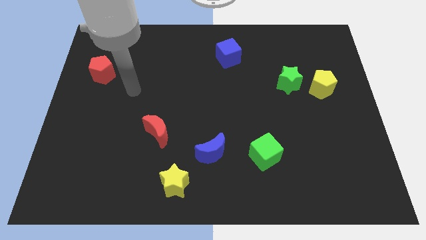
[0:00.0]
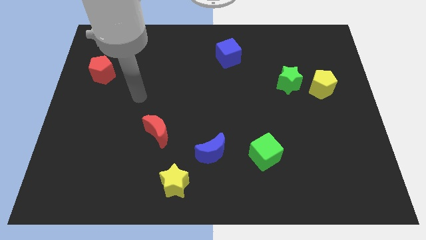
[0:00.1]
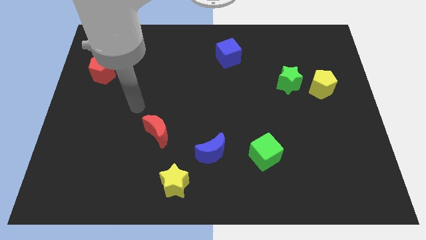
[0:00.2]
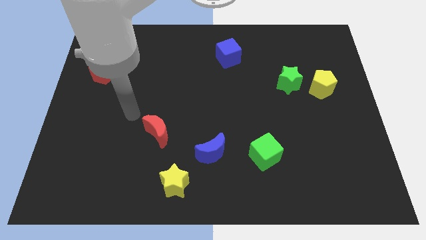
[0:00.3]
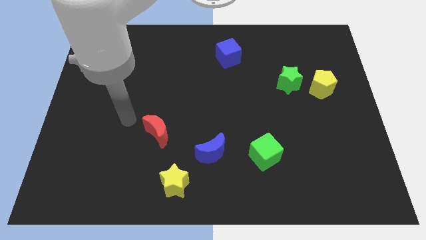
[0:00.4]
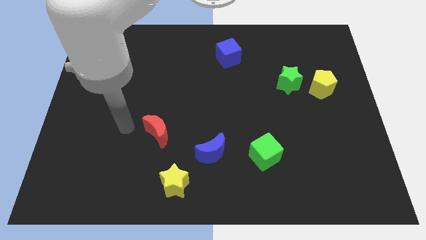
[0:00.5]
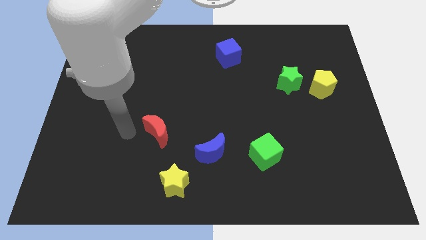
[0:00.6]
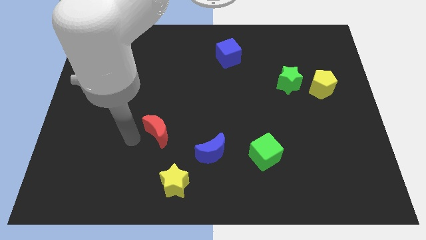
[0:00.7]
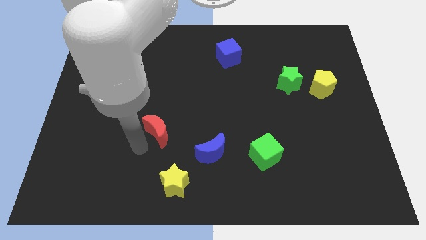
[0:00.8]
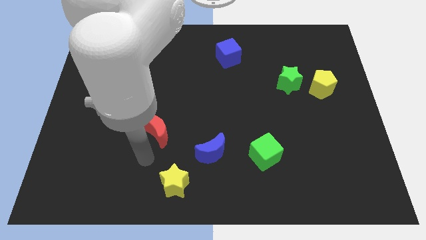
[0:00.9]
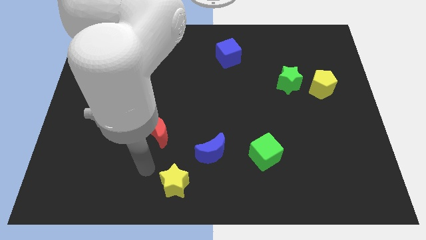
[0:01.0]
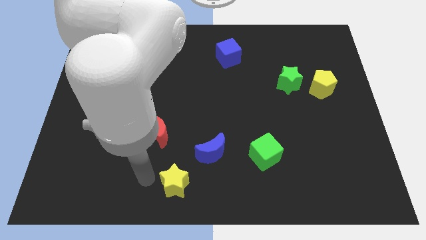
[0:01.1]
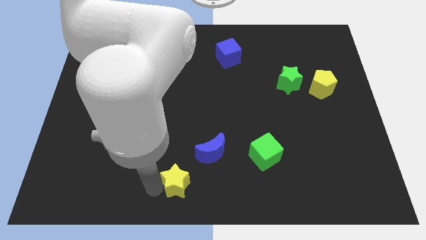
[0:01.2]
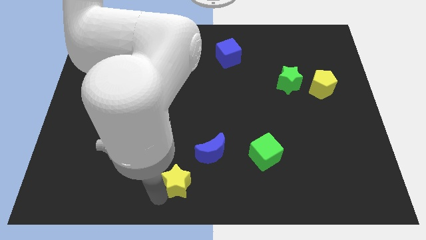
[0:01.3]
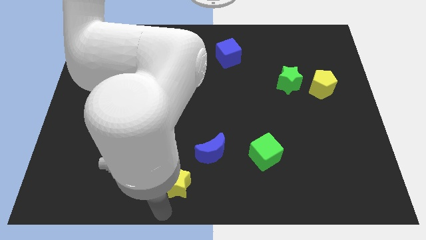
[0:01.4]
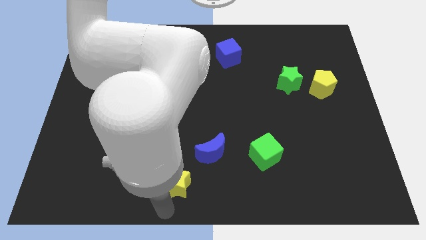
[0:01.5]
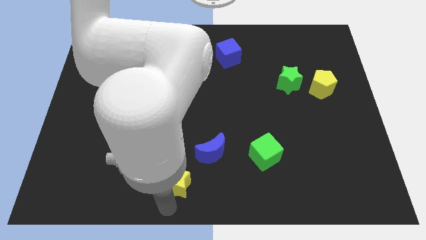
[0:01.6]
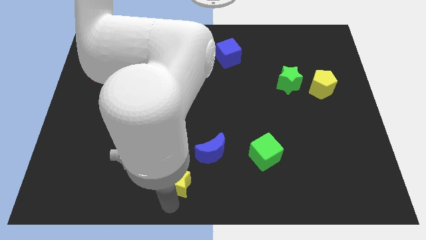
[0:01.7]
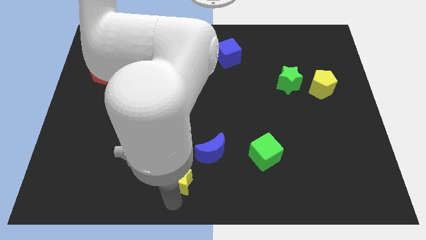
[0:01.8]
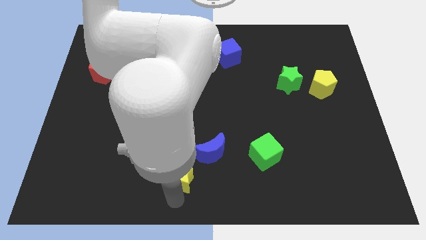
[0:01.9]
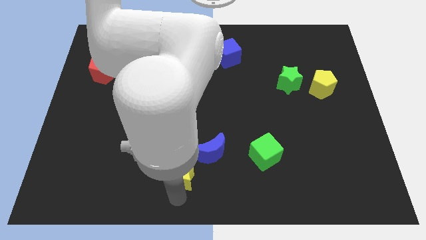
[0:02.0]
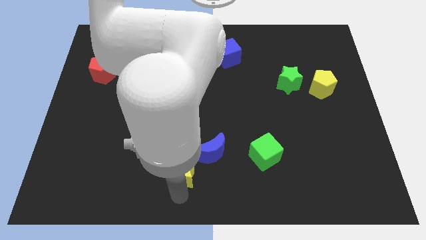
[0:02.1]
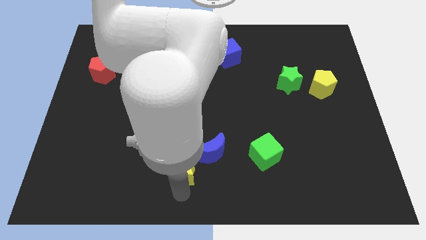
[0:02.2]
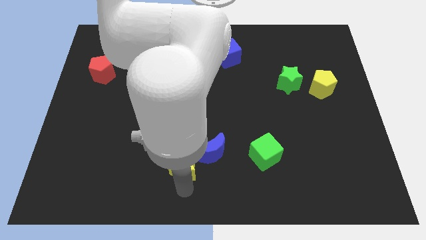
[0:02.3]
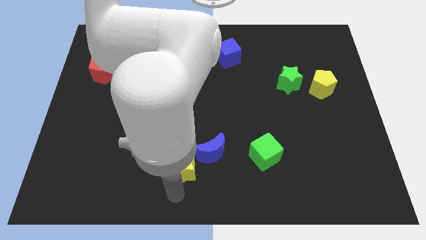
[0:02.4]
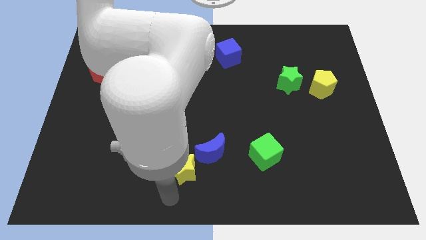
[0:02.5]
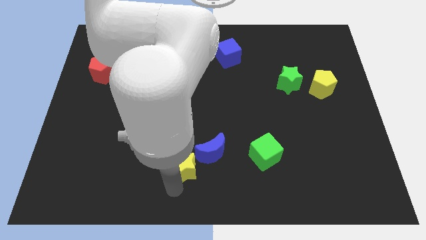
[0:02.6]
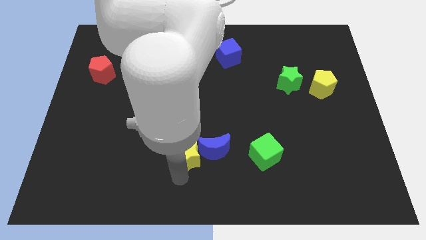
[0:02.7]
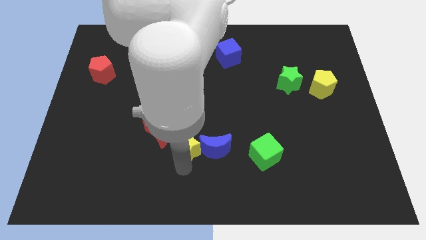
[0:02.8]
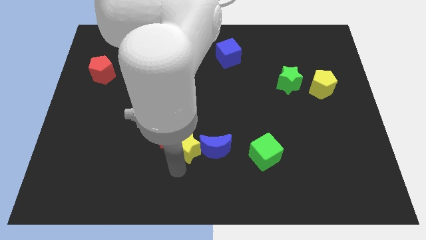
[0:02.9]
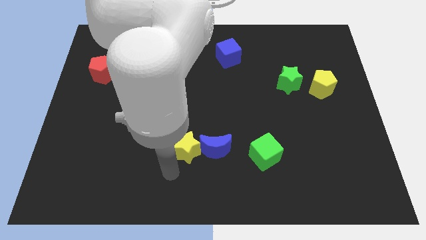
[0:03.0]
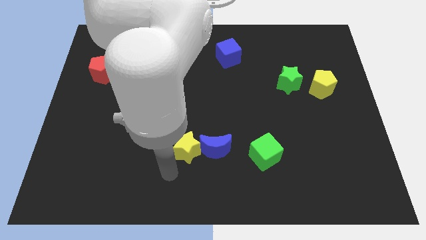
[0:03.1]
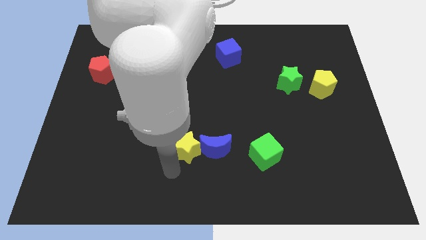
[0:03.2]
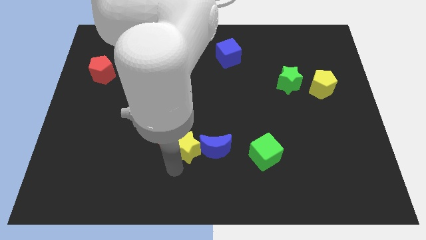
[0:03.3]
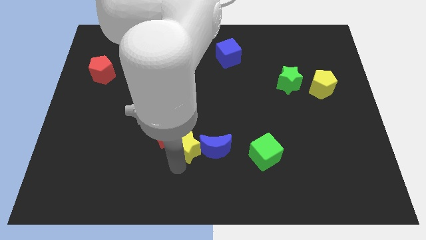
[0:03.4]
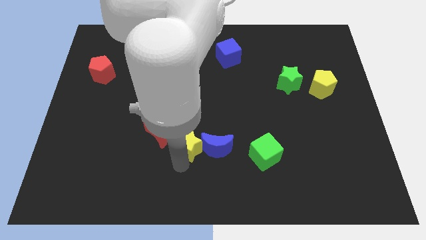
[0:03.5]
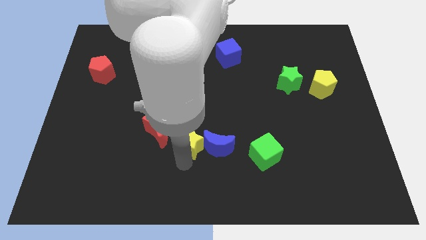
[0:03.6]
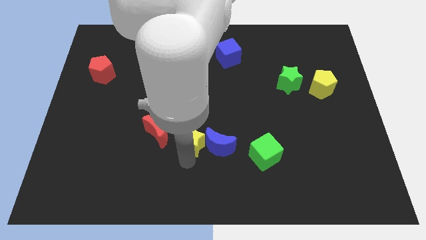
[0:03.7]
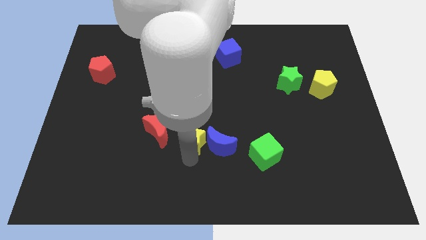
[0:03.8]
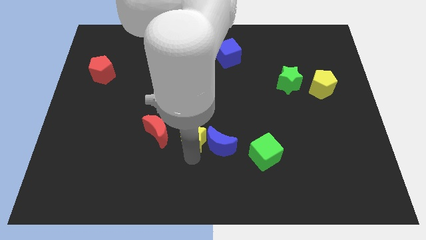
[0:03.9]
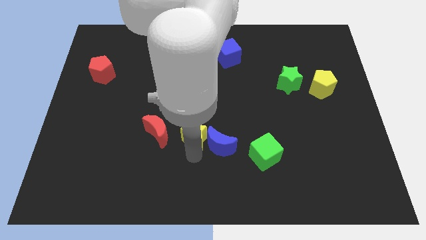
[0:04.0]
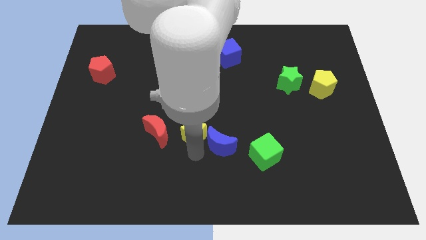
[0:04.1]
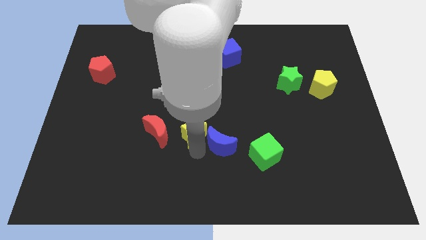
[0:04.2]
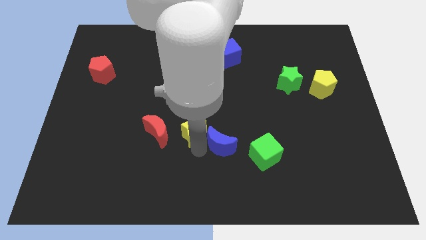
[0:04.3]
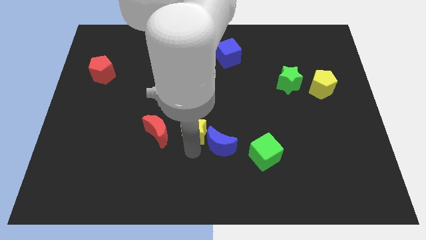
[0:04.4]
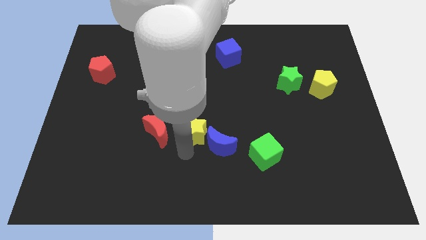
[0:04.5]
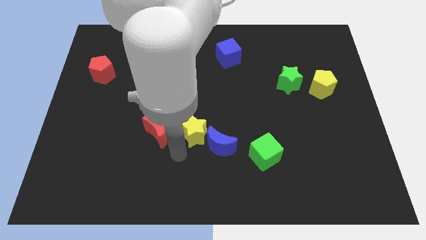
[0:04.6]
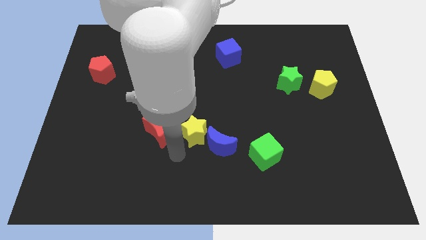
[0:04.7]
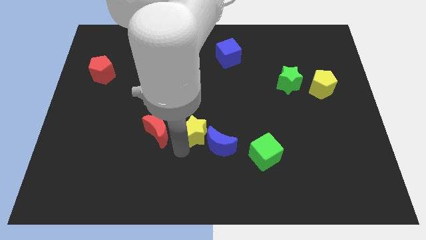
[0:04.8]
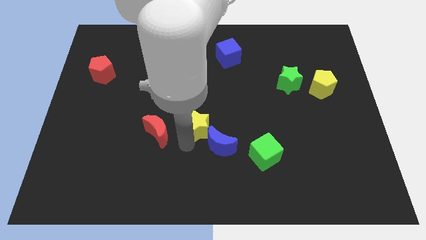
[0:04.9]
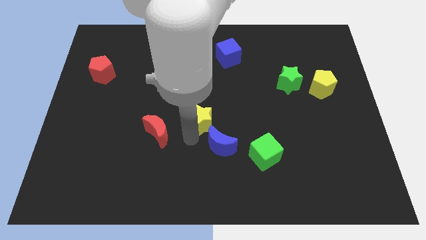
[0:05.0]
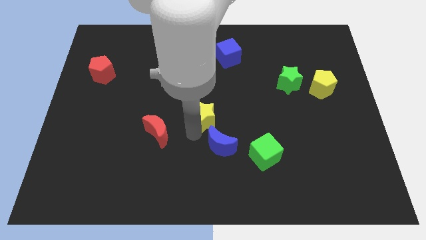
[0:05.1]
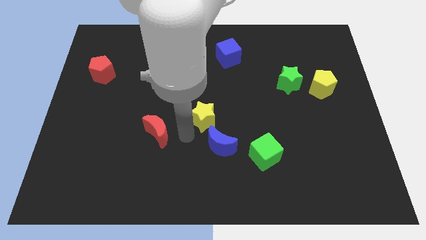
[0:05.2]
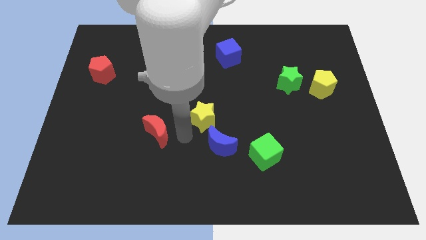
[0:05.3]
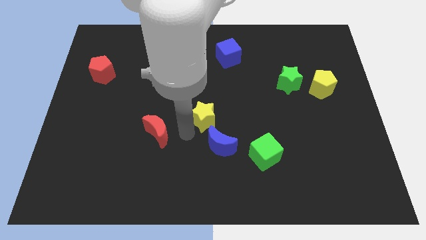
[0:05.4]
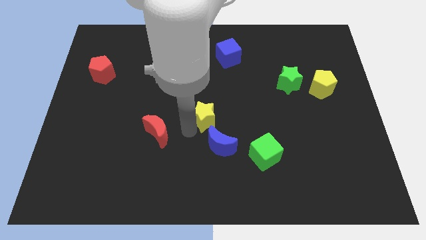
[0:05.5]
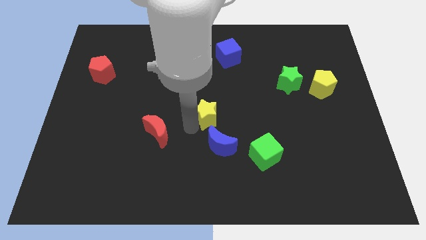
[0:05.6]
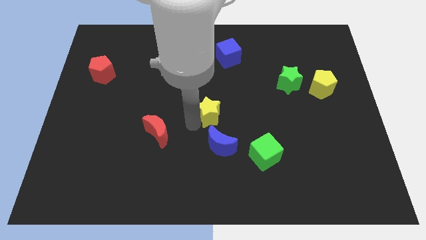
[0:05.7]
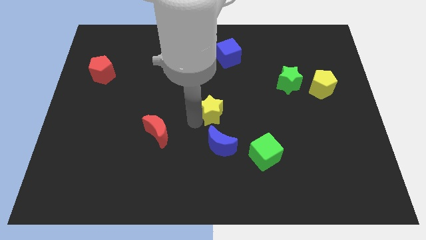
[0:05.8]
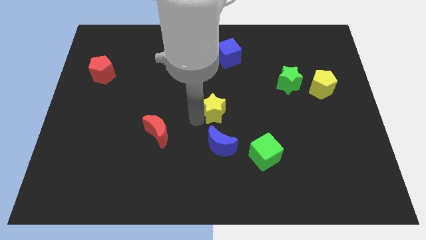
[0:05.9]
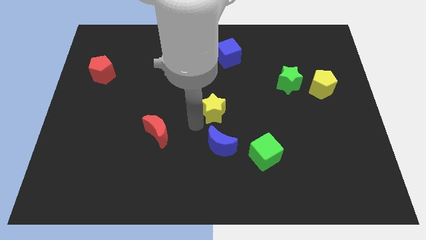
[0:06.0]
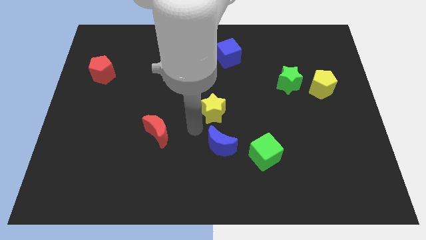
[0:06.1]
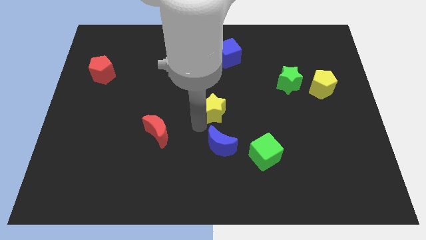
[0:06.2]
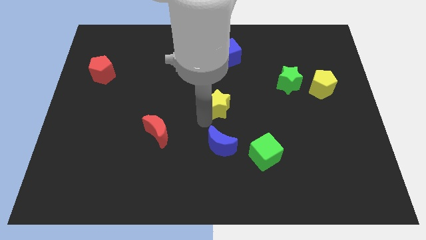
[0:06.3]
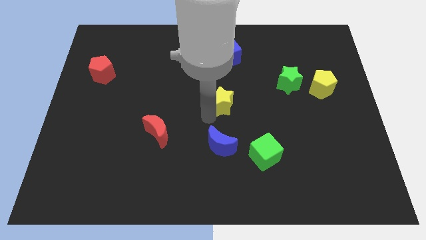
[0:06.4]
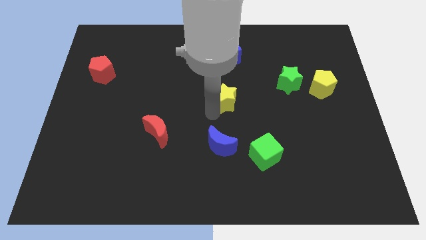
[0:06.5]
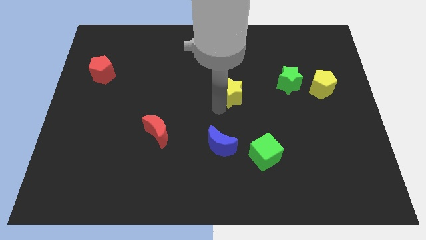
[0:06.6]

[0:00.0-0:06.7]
move the yellow star left of the green star

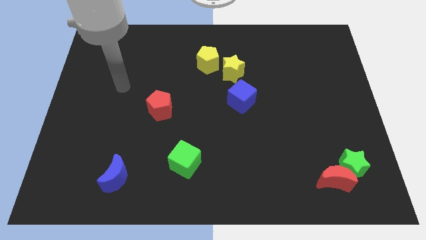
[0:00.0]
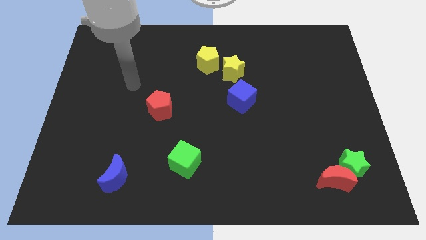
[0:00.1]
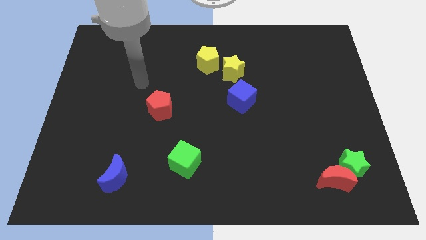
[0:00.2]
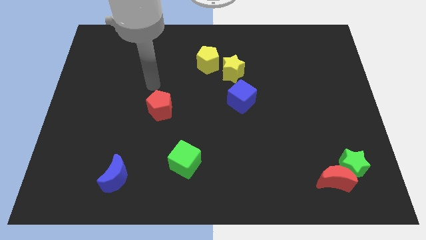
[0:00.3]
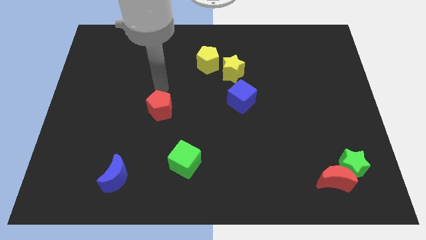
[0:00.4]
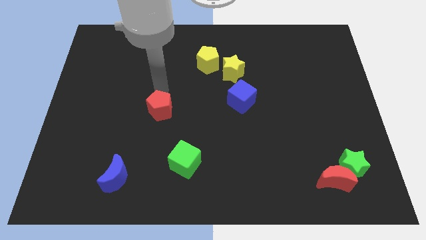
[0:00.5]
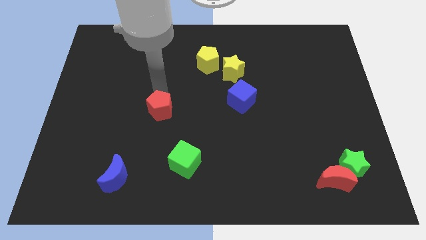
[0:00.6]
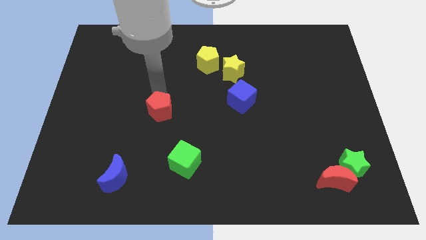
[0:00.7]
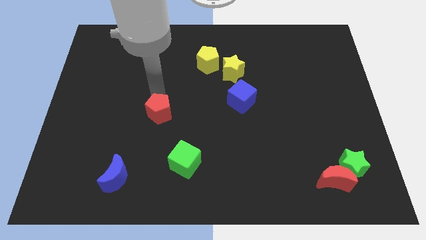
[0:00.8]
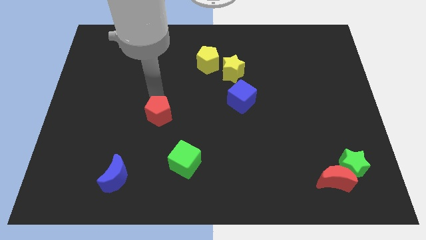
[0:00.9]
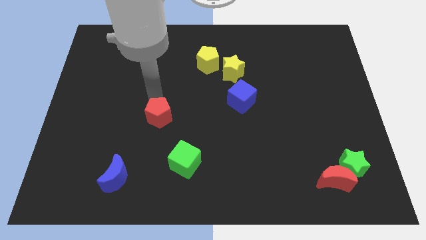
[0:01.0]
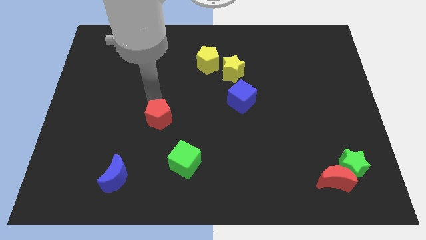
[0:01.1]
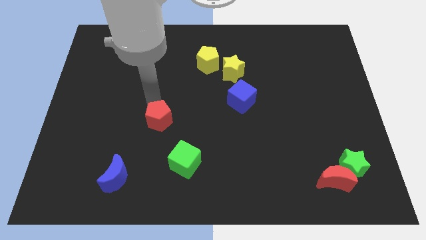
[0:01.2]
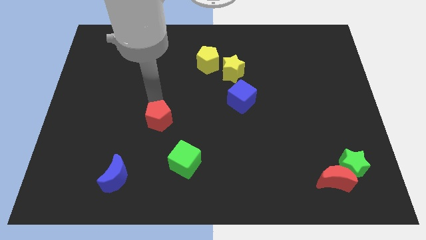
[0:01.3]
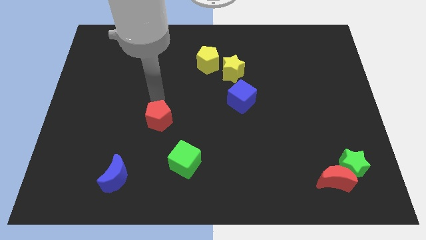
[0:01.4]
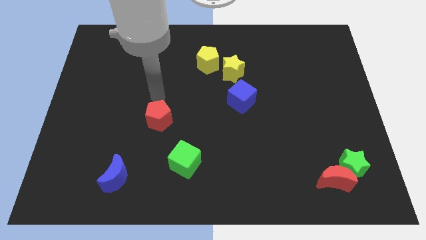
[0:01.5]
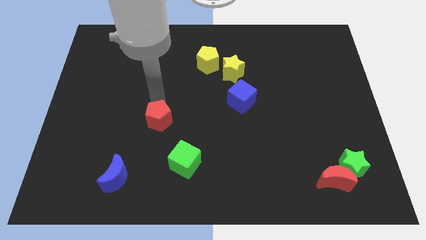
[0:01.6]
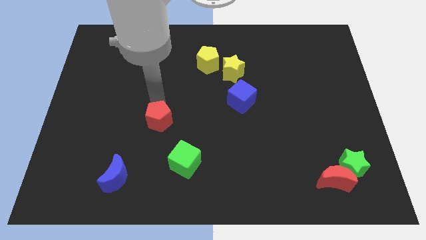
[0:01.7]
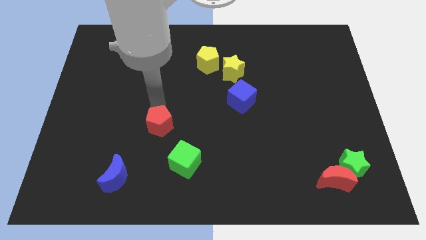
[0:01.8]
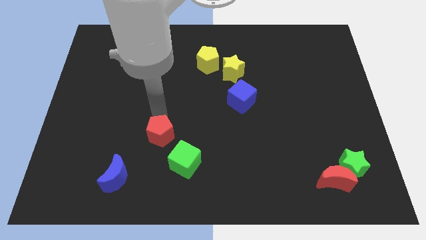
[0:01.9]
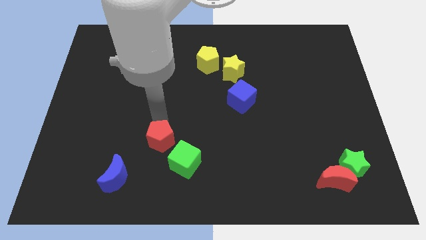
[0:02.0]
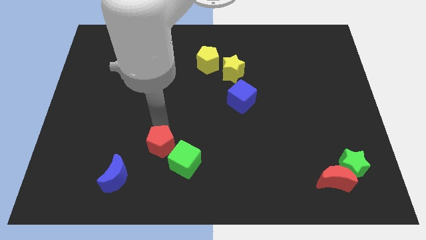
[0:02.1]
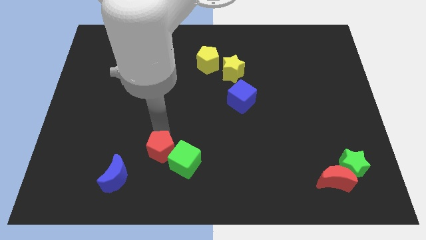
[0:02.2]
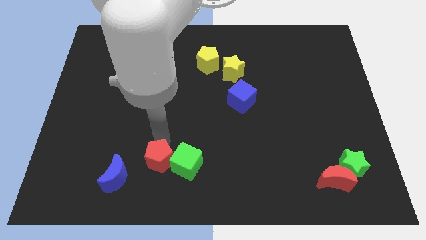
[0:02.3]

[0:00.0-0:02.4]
slide the red pentagon to the bottom left side of the green cube
